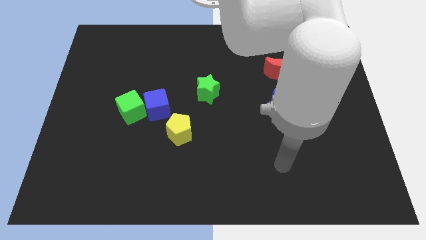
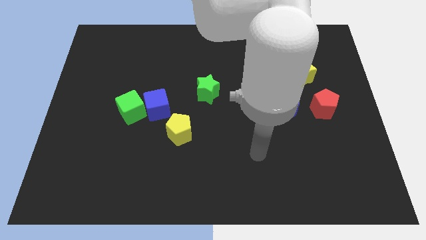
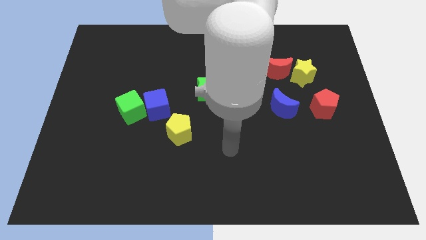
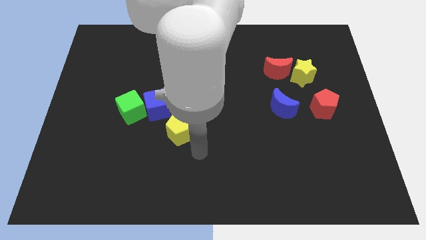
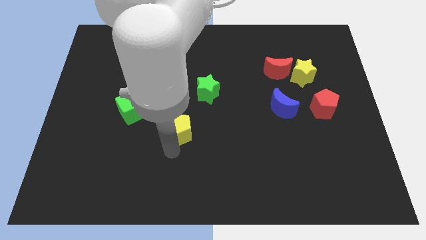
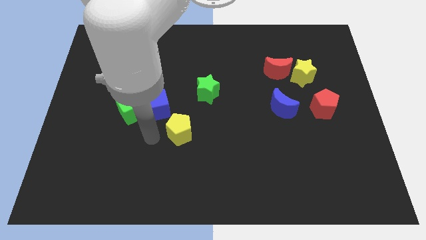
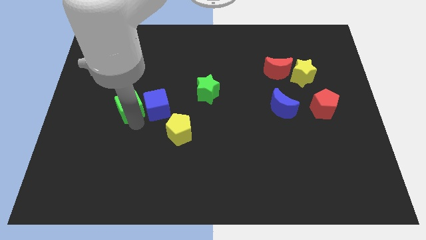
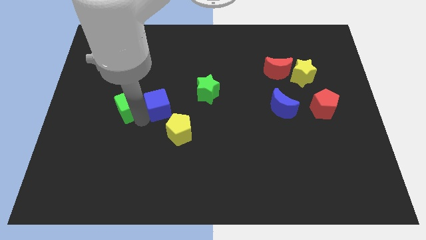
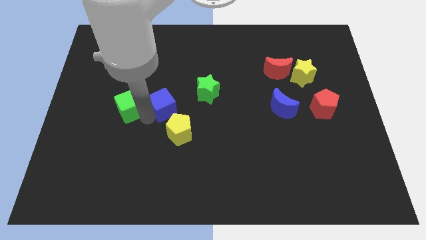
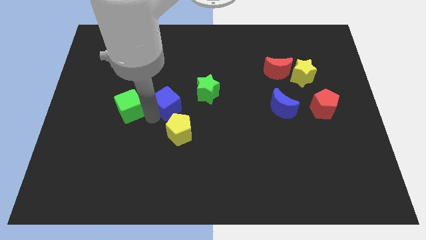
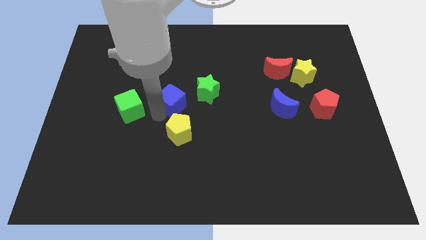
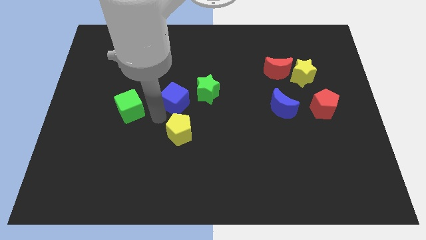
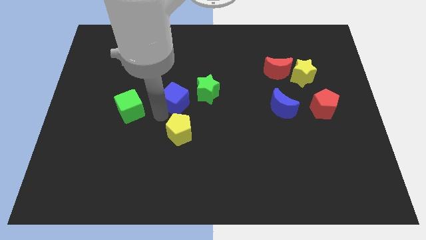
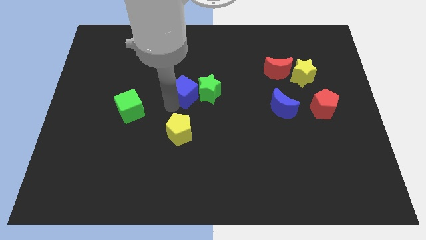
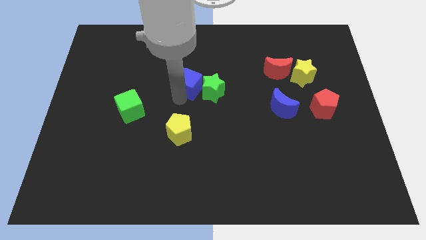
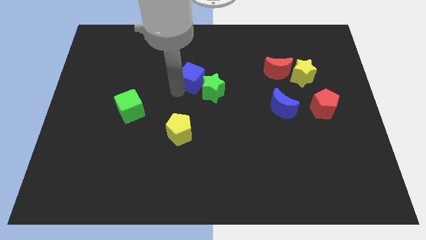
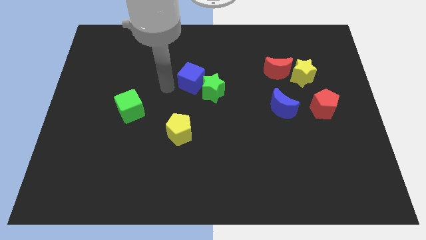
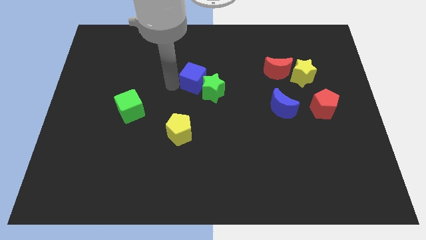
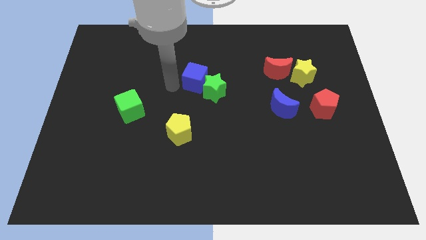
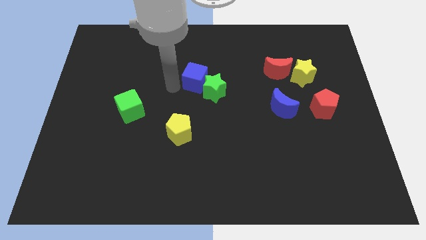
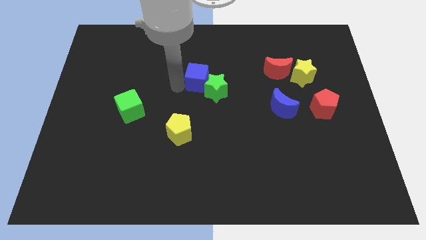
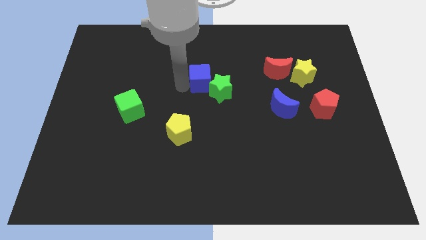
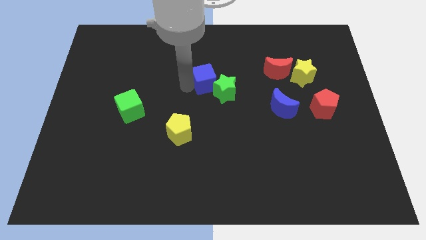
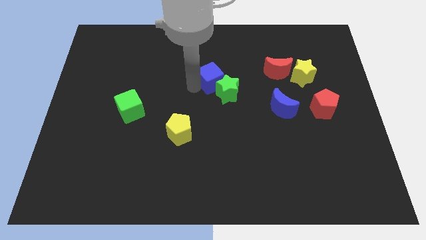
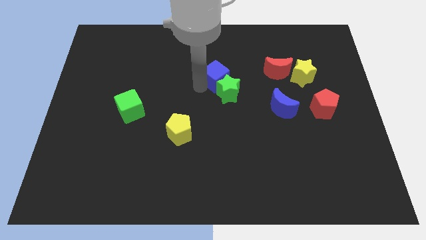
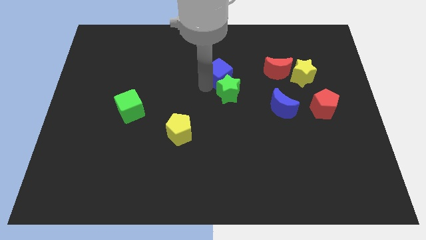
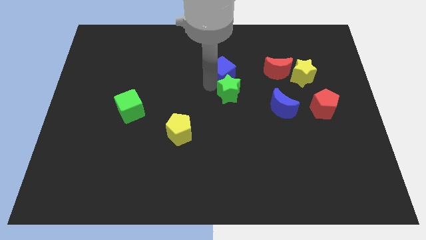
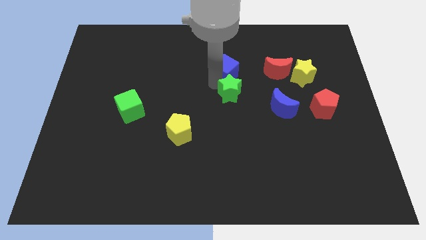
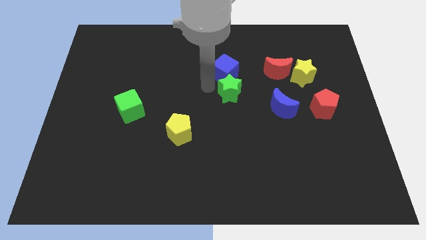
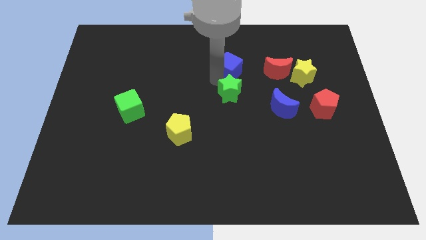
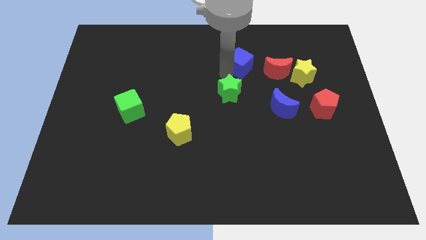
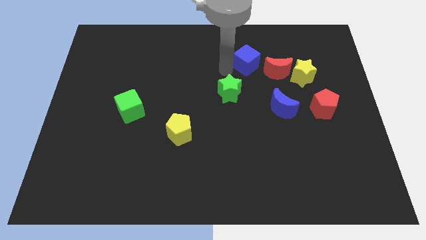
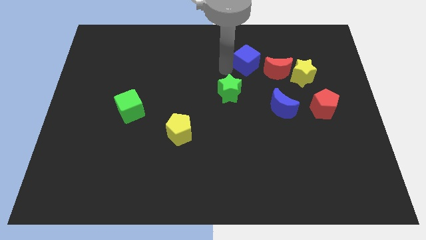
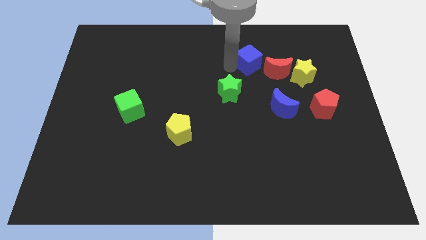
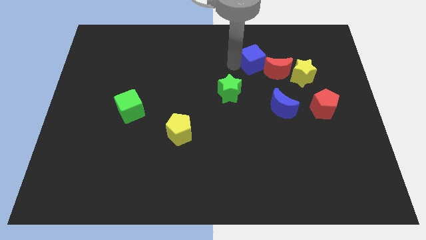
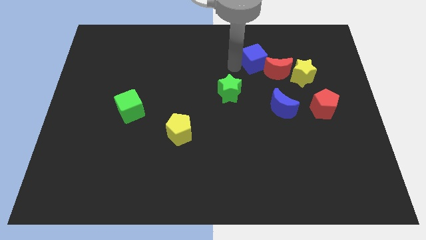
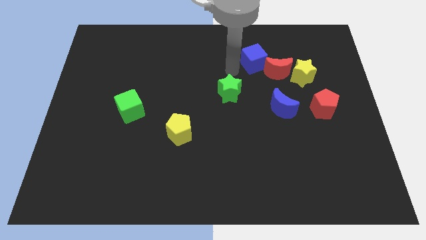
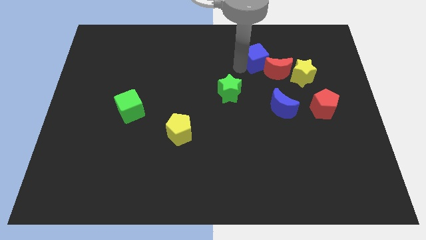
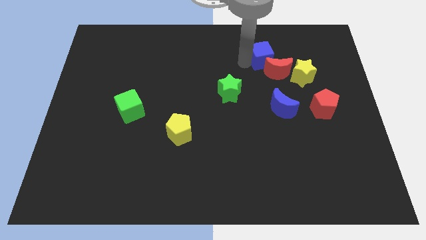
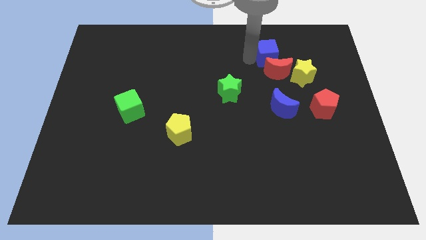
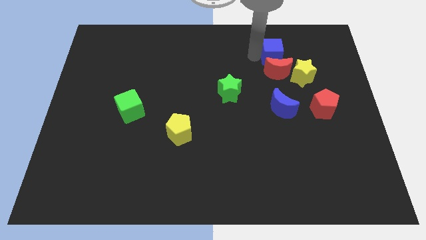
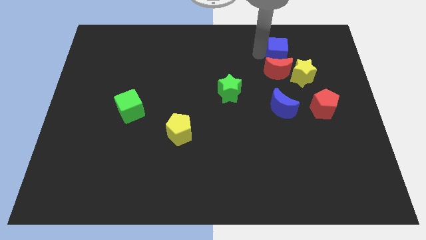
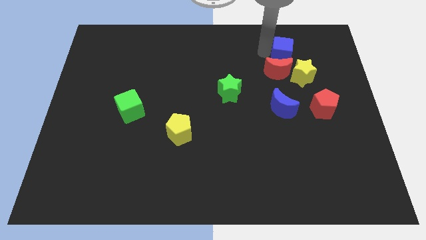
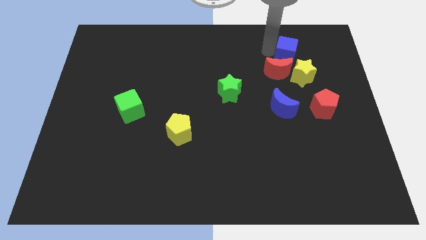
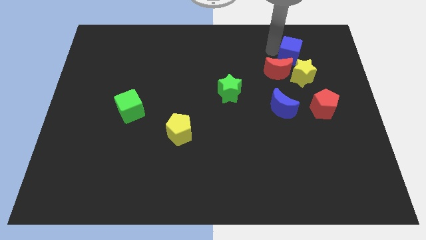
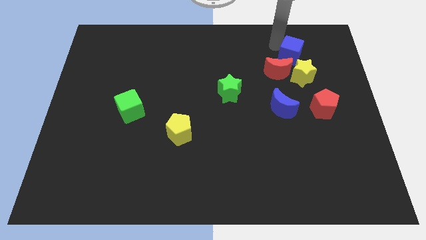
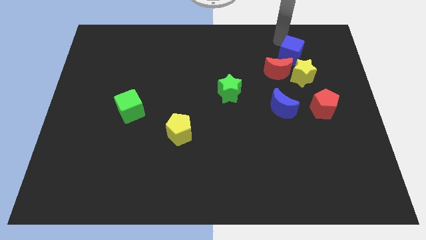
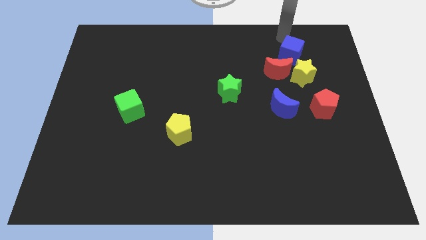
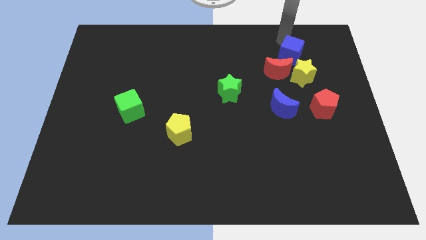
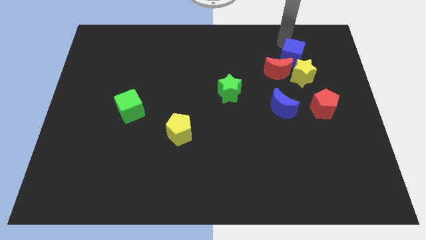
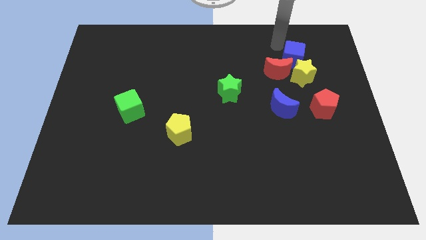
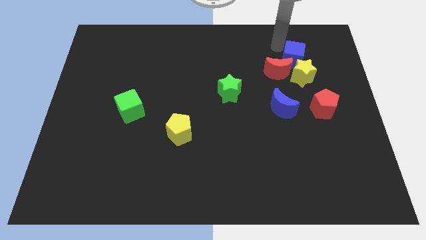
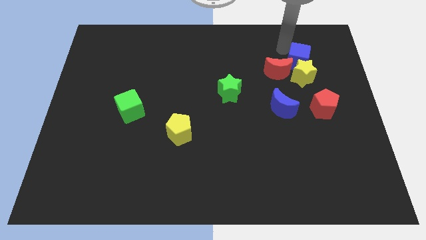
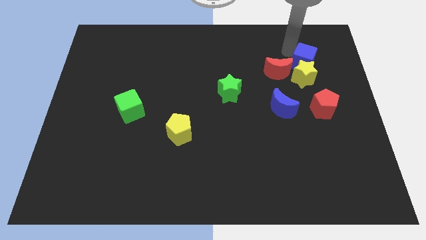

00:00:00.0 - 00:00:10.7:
push the blue cube to the top of the red pentagon

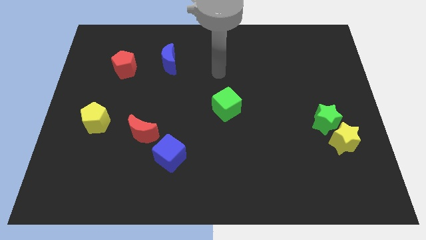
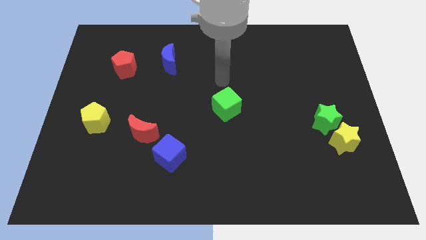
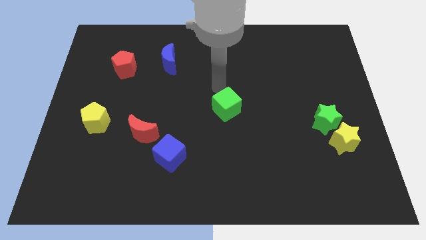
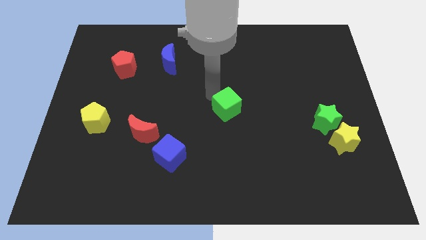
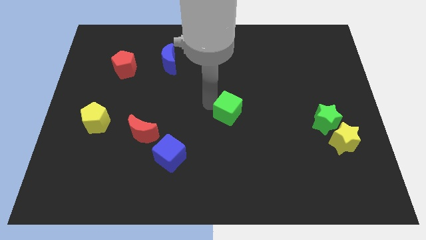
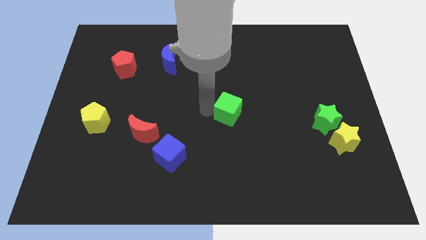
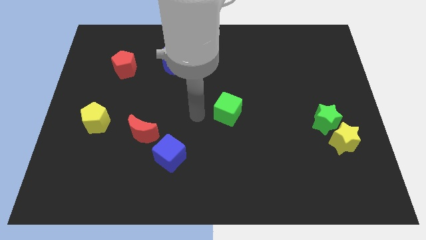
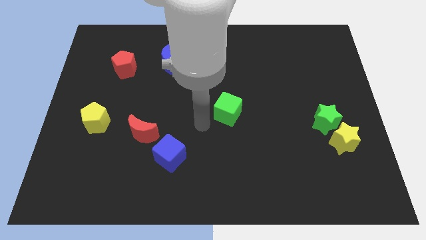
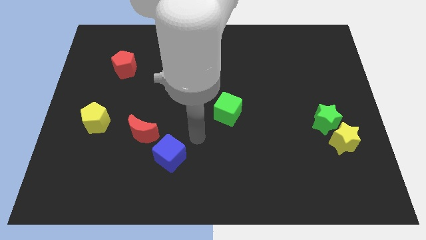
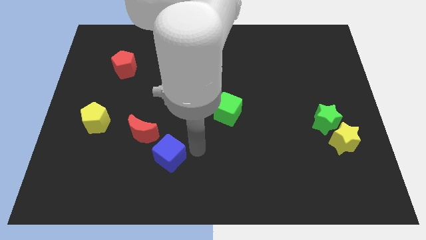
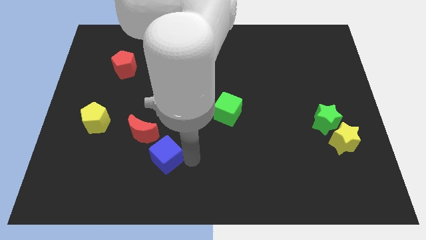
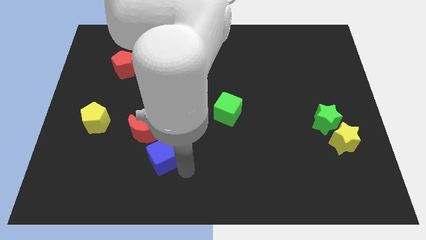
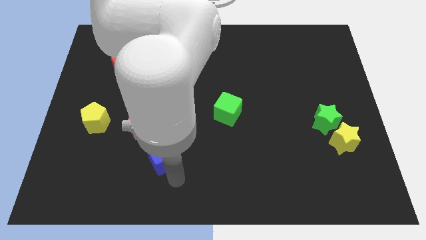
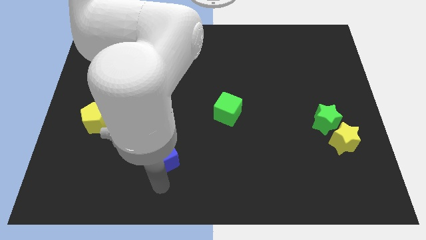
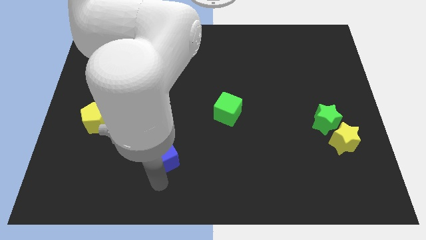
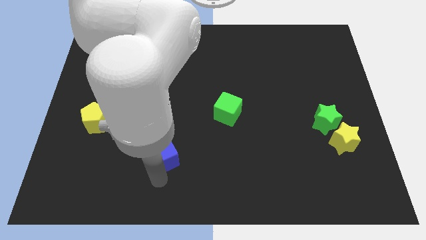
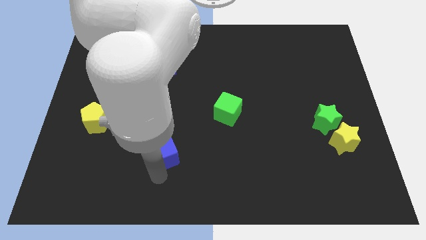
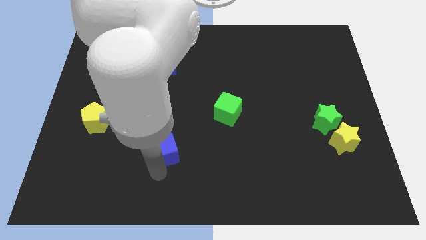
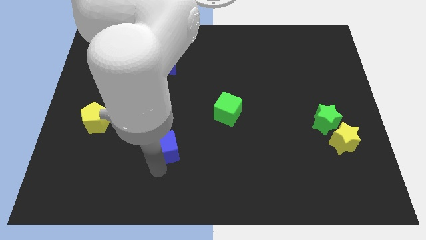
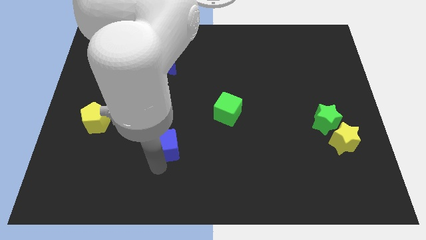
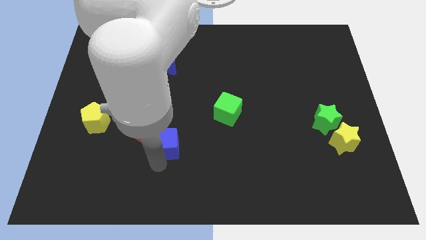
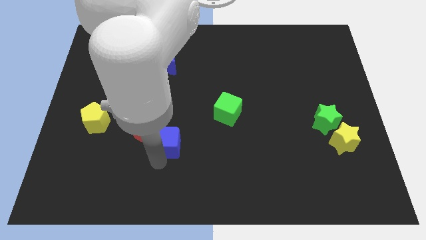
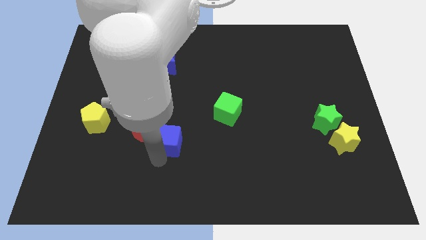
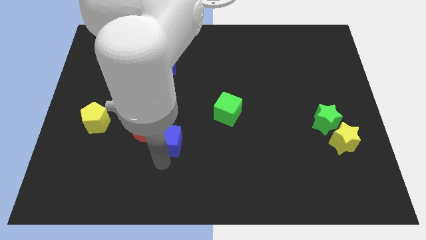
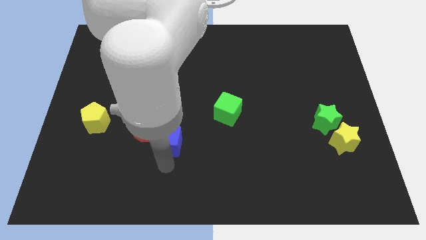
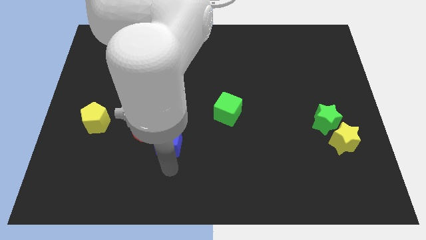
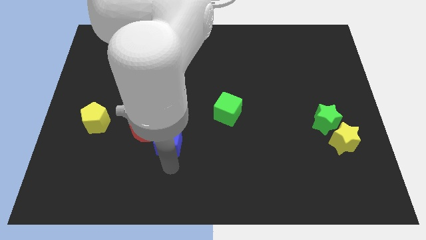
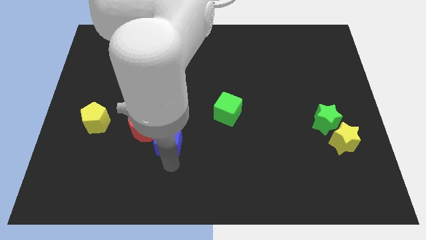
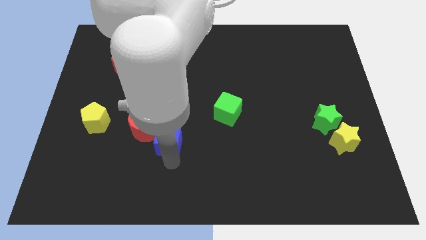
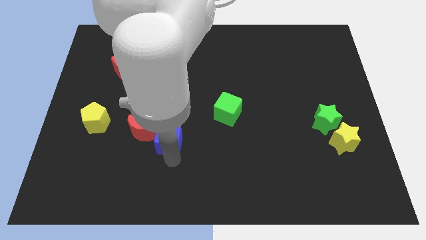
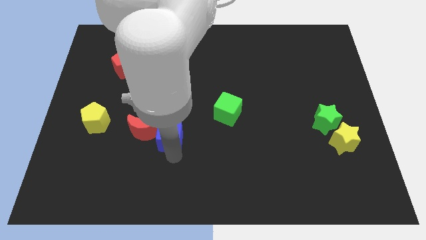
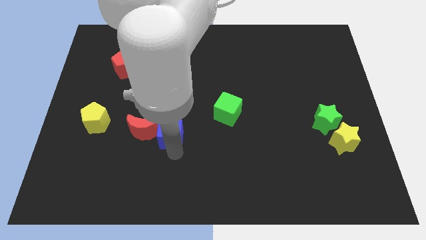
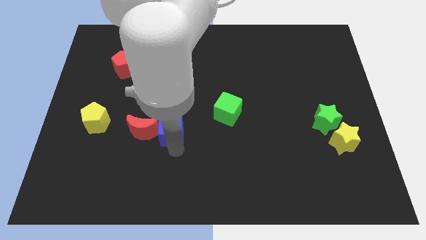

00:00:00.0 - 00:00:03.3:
put the blue cube to the top right side of the red moon
